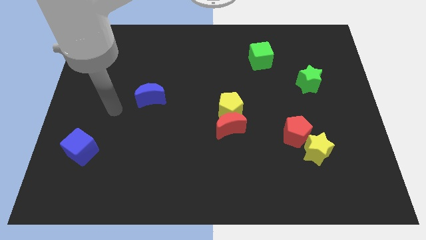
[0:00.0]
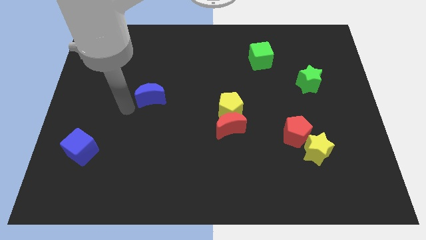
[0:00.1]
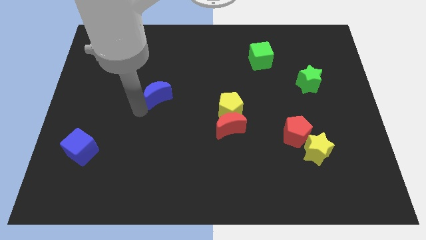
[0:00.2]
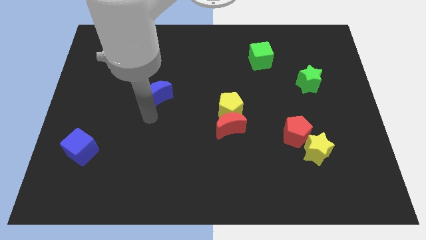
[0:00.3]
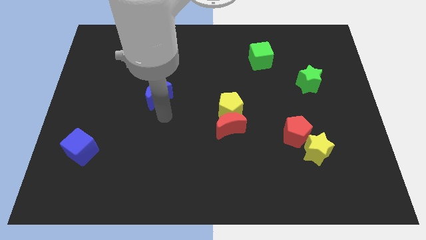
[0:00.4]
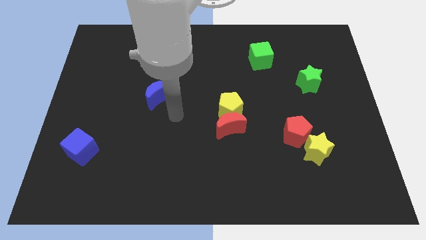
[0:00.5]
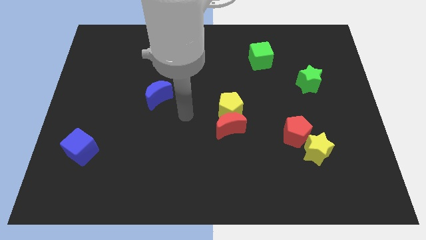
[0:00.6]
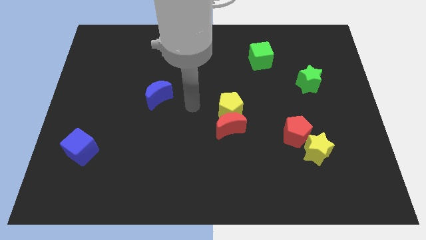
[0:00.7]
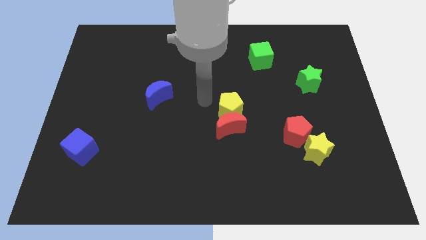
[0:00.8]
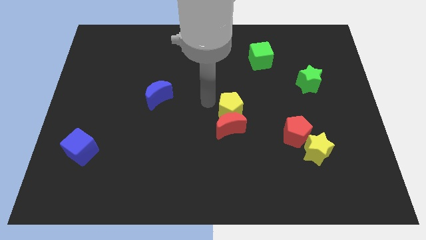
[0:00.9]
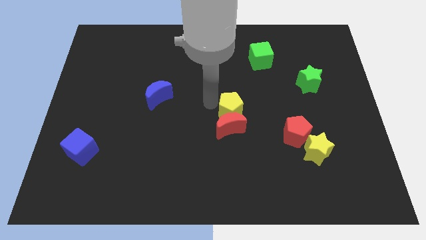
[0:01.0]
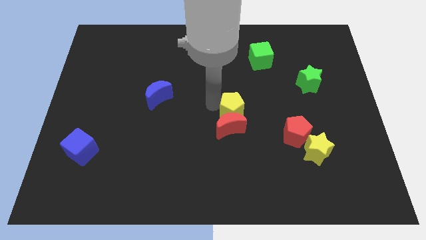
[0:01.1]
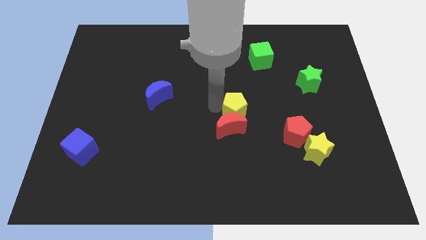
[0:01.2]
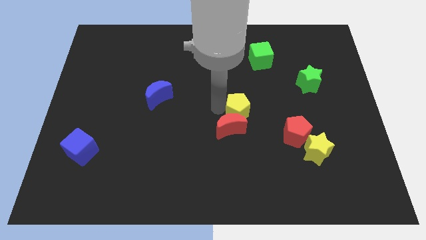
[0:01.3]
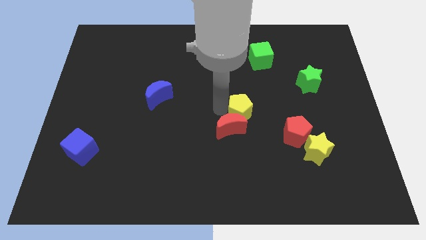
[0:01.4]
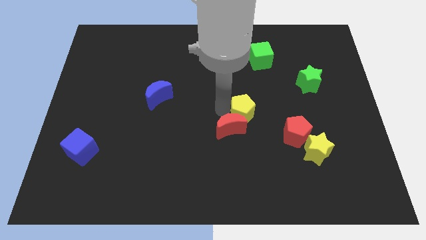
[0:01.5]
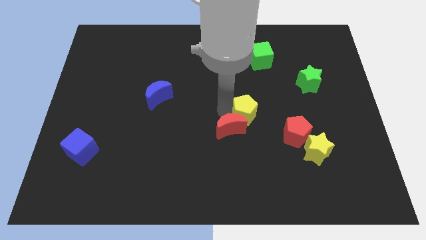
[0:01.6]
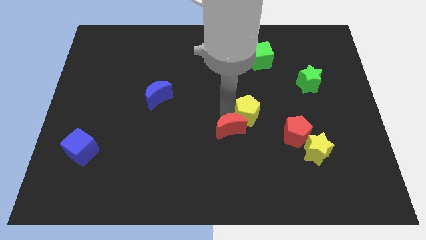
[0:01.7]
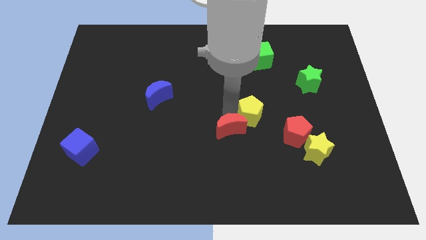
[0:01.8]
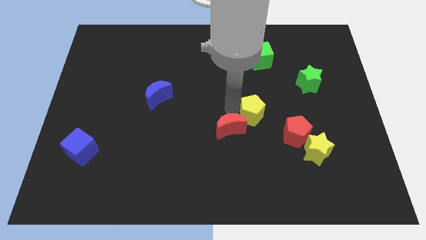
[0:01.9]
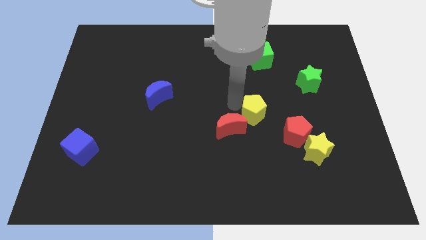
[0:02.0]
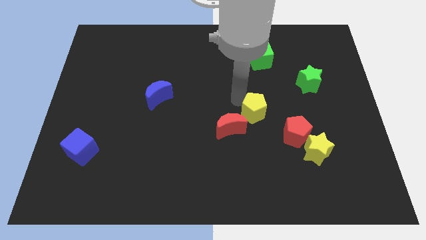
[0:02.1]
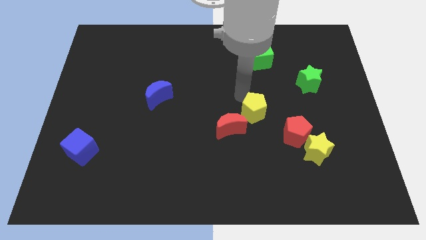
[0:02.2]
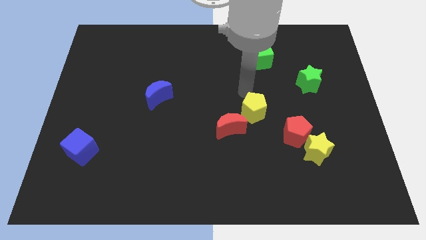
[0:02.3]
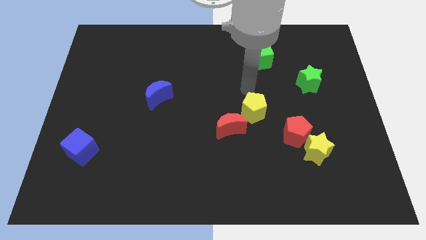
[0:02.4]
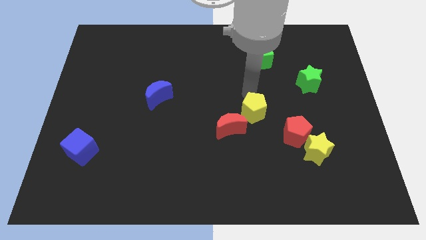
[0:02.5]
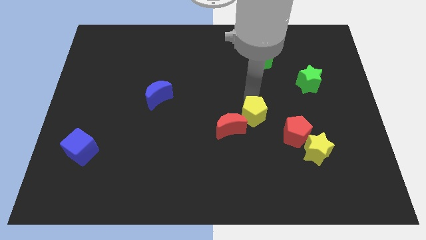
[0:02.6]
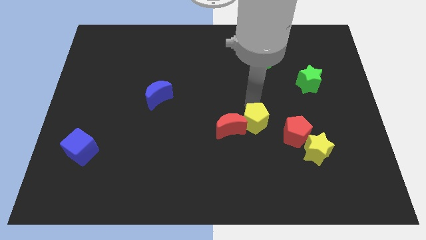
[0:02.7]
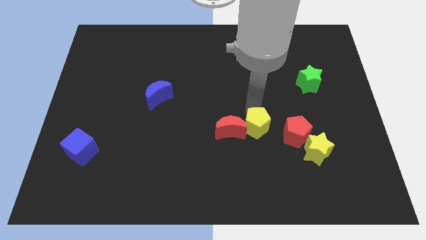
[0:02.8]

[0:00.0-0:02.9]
move the yellow pentagon downwards and to the right diagonally a little

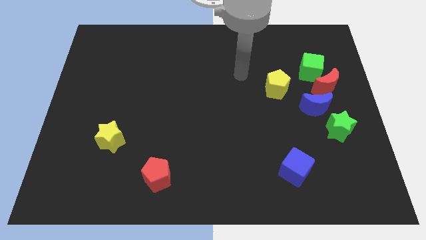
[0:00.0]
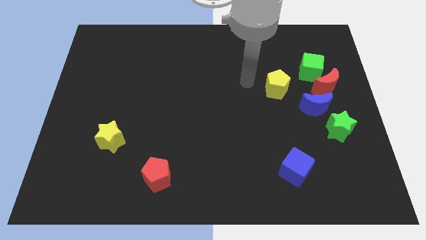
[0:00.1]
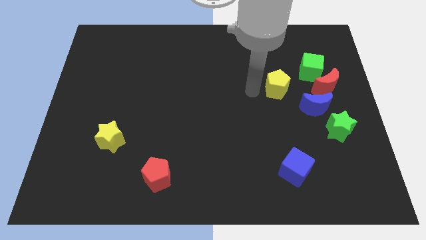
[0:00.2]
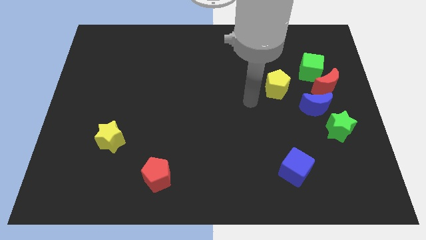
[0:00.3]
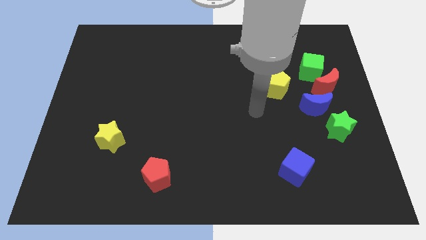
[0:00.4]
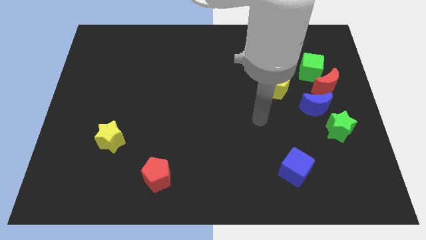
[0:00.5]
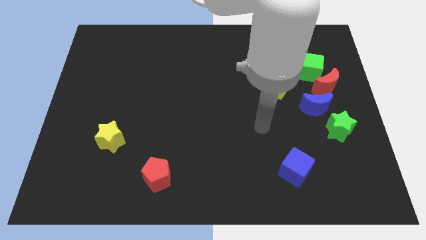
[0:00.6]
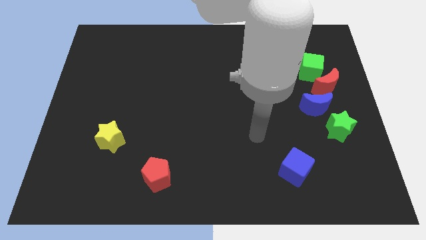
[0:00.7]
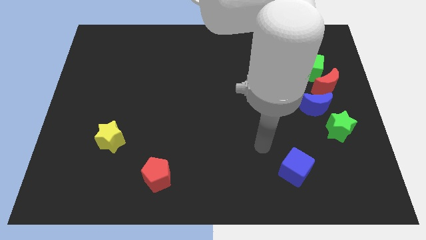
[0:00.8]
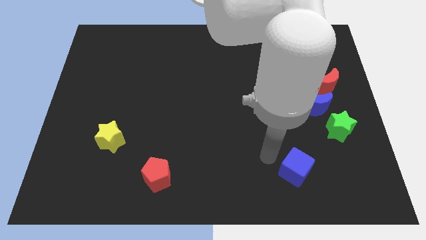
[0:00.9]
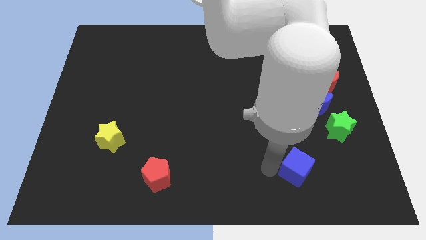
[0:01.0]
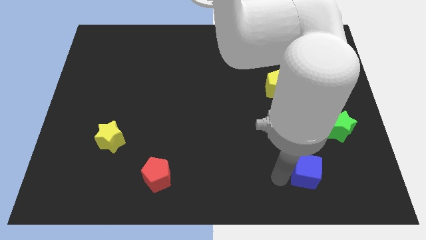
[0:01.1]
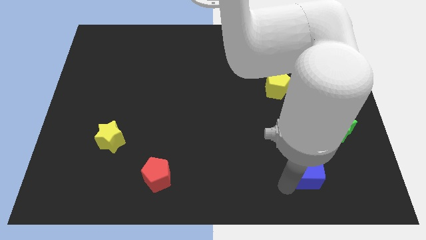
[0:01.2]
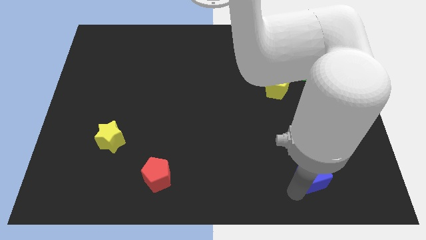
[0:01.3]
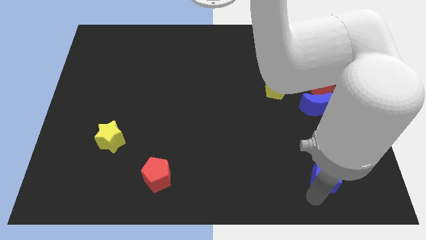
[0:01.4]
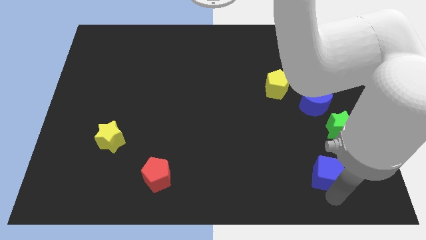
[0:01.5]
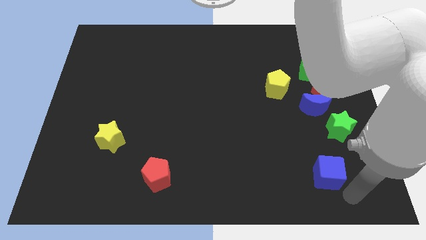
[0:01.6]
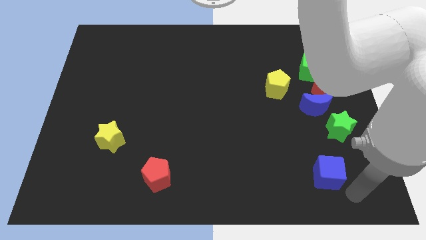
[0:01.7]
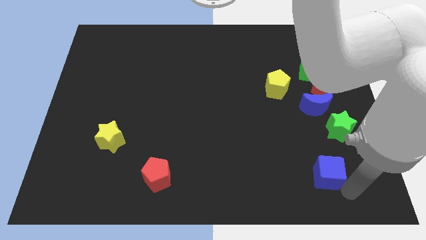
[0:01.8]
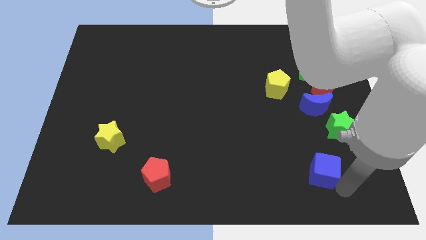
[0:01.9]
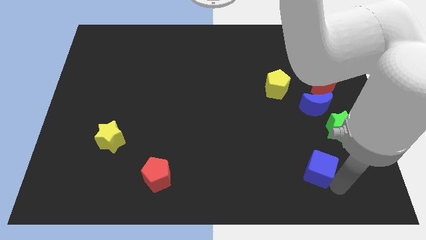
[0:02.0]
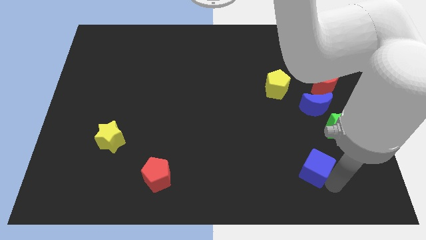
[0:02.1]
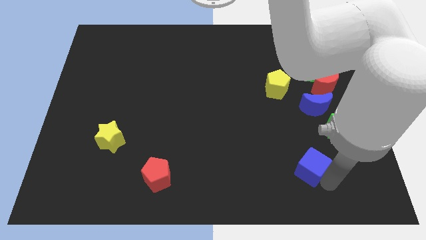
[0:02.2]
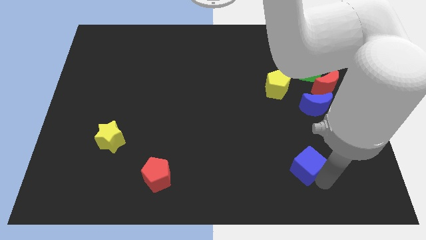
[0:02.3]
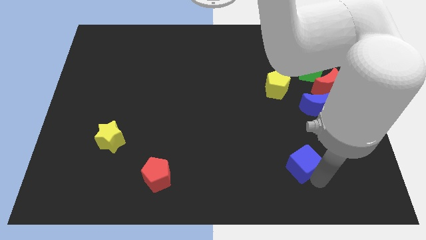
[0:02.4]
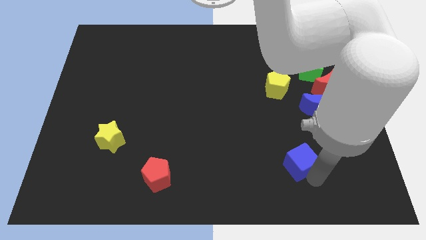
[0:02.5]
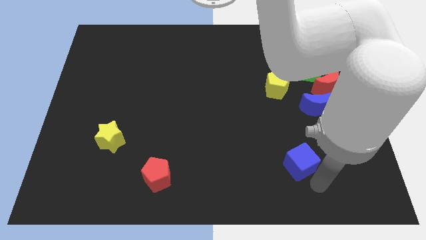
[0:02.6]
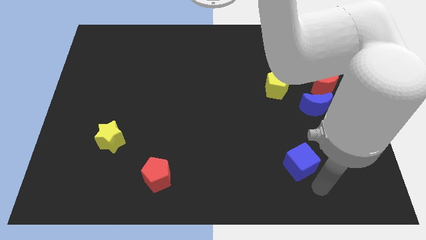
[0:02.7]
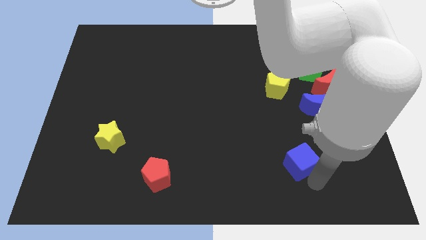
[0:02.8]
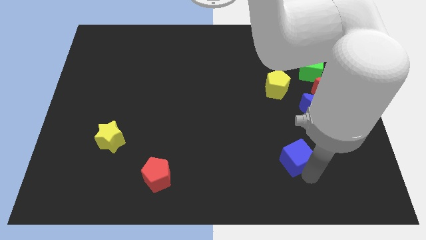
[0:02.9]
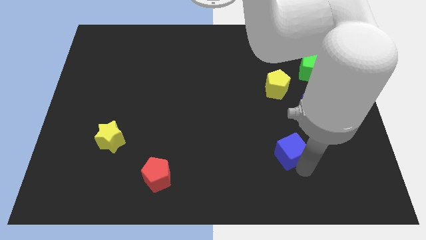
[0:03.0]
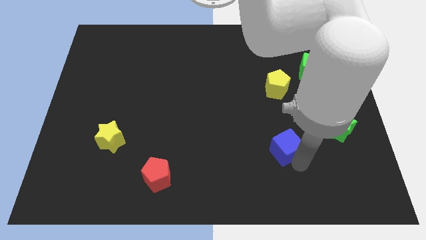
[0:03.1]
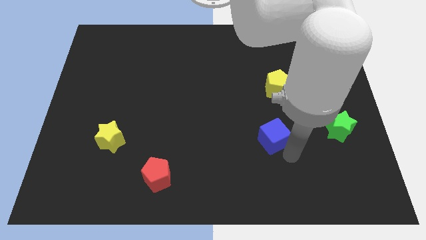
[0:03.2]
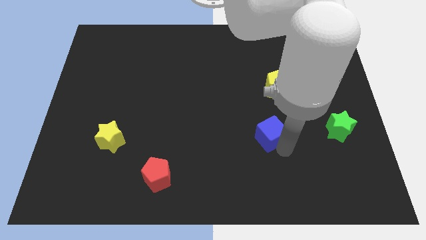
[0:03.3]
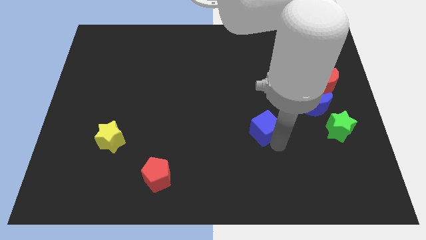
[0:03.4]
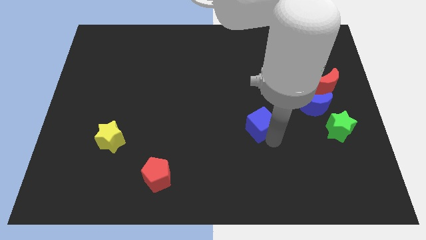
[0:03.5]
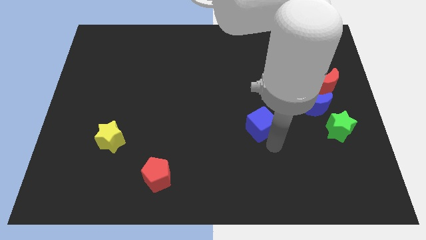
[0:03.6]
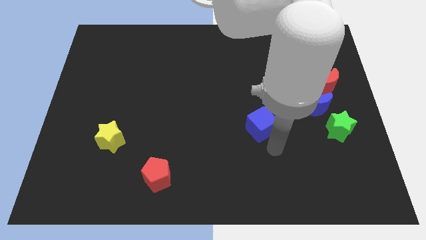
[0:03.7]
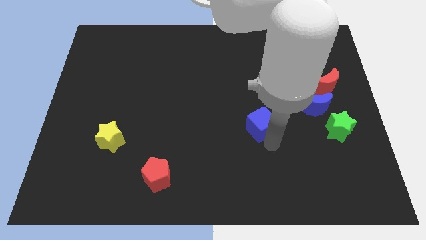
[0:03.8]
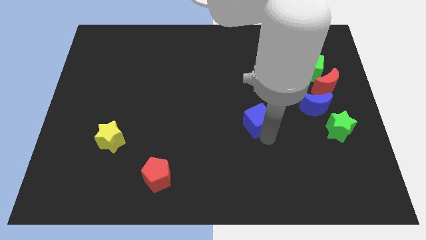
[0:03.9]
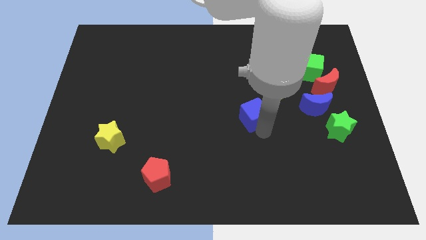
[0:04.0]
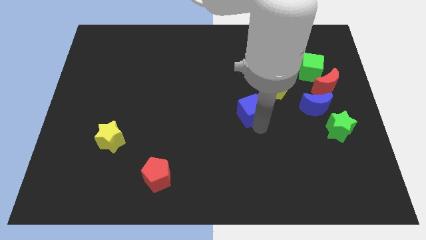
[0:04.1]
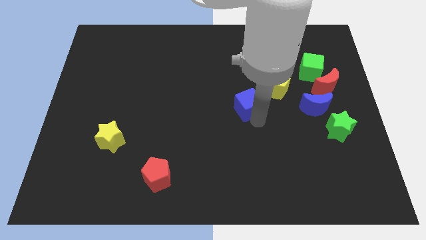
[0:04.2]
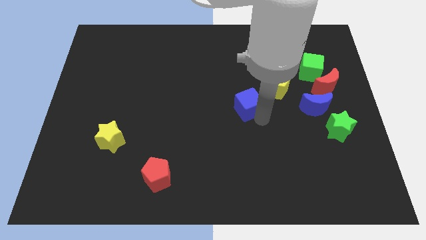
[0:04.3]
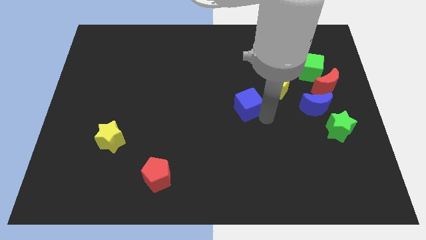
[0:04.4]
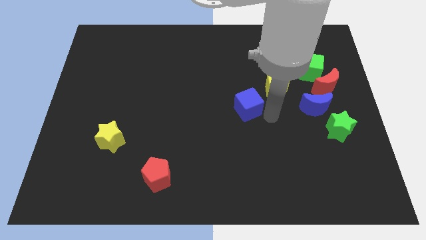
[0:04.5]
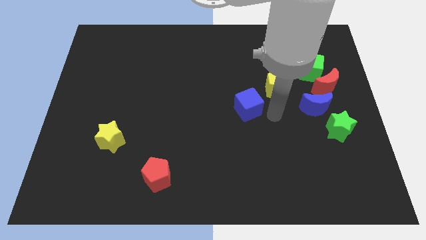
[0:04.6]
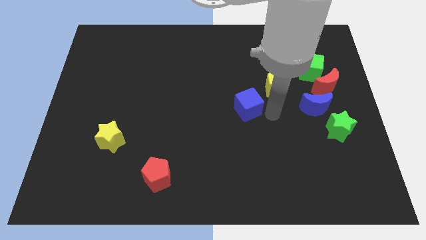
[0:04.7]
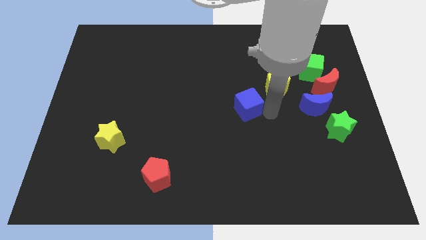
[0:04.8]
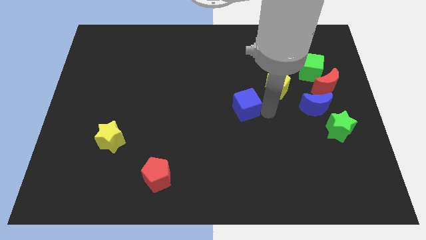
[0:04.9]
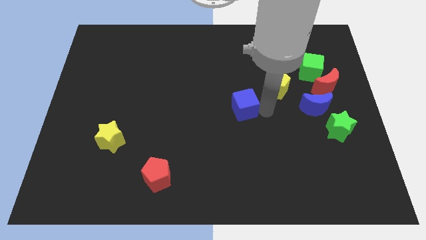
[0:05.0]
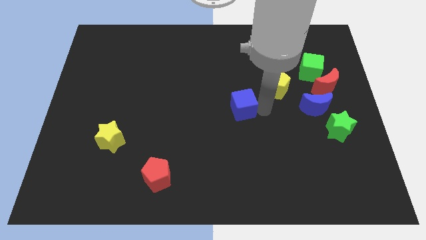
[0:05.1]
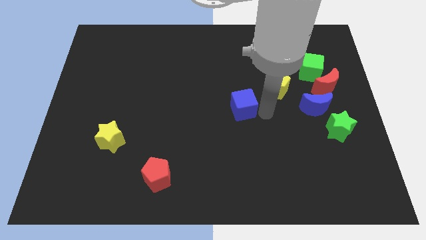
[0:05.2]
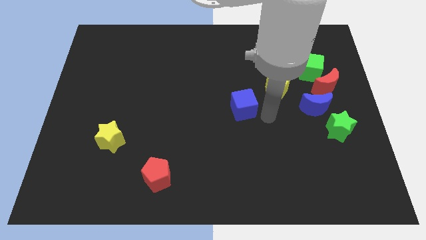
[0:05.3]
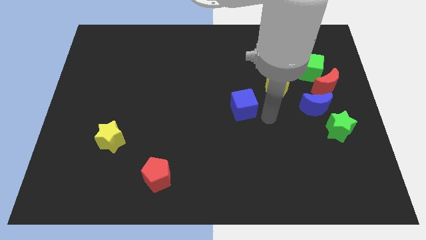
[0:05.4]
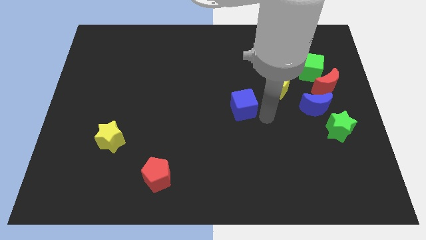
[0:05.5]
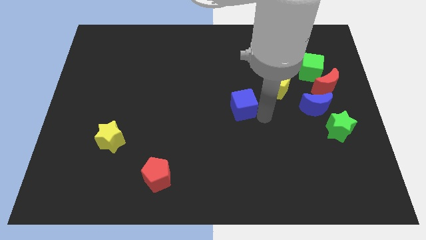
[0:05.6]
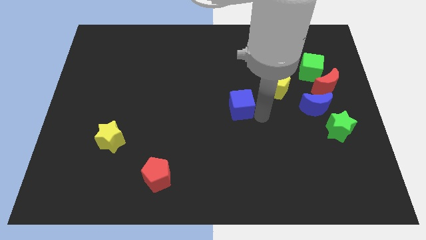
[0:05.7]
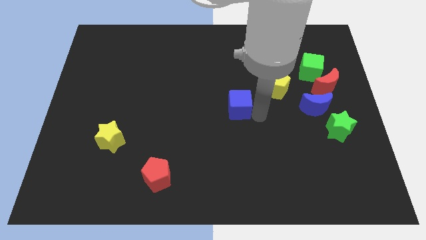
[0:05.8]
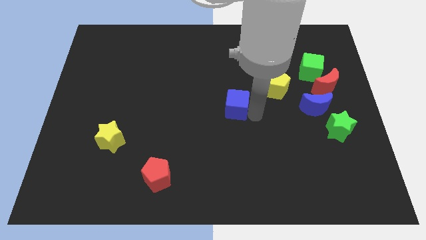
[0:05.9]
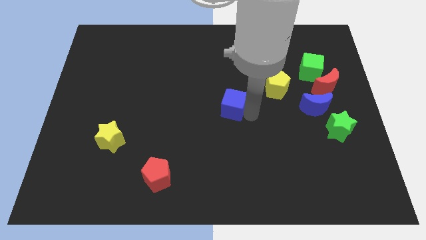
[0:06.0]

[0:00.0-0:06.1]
move the blue cube up and to the left
